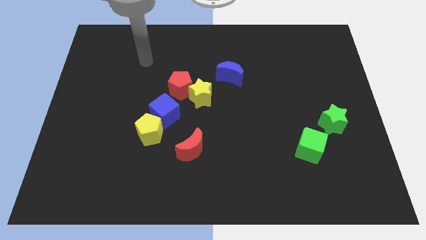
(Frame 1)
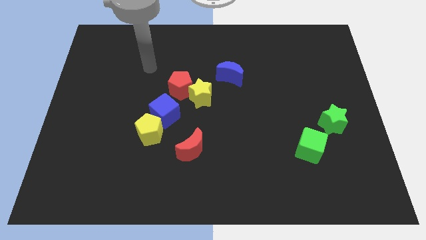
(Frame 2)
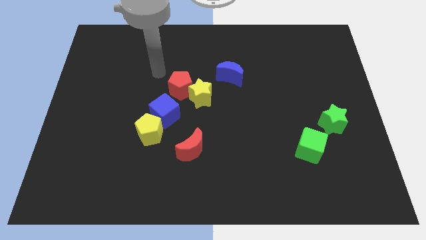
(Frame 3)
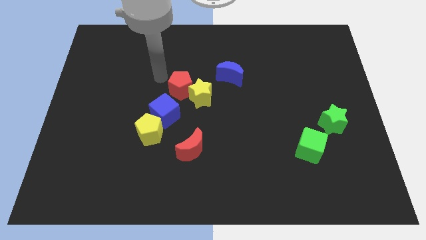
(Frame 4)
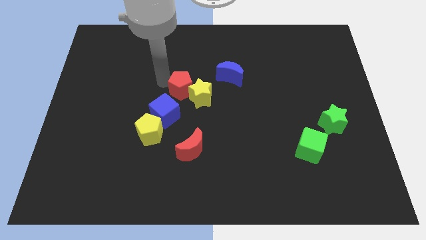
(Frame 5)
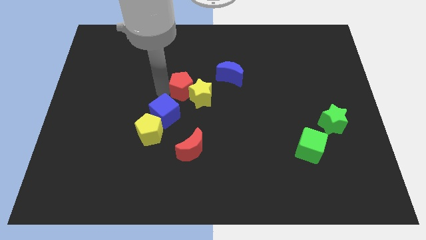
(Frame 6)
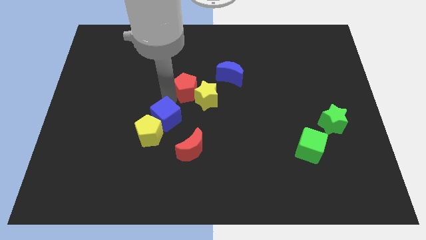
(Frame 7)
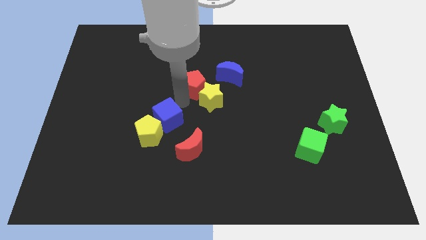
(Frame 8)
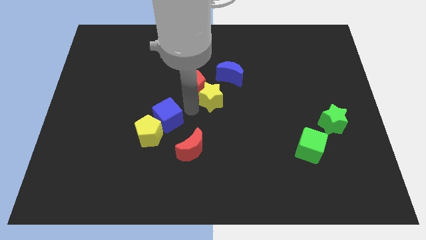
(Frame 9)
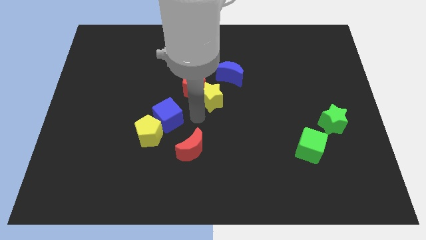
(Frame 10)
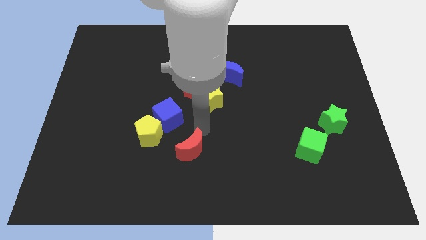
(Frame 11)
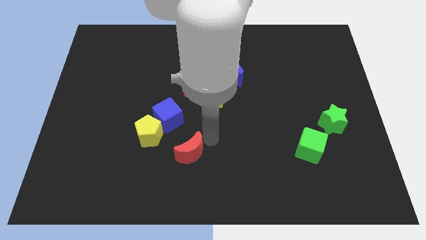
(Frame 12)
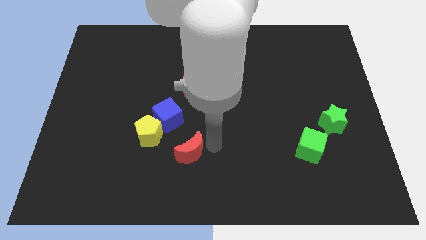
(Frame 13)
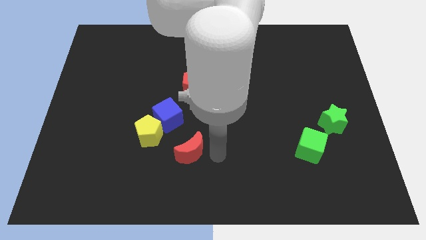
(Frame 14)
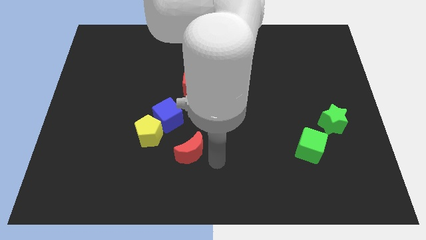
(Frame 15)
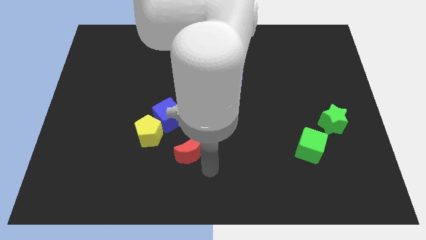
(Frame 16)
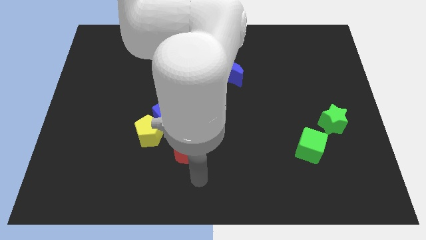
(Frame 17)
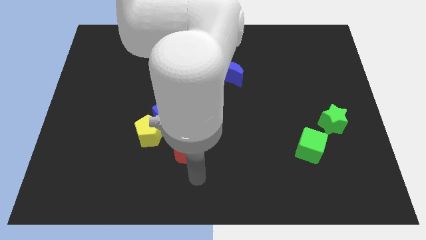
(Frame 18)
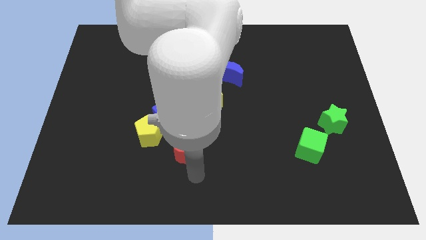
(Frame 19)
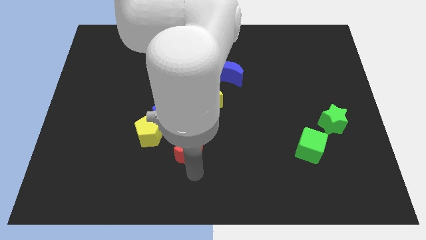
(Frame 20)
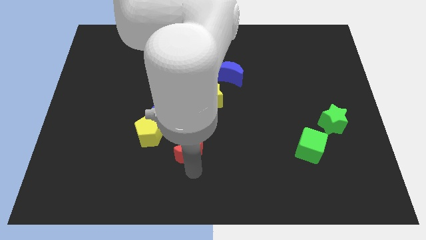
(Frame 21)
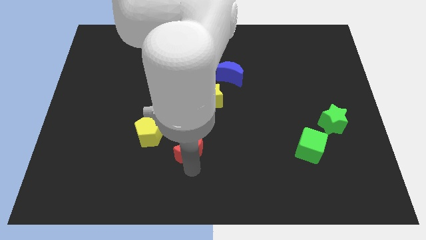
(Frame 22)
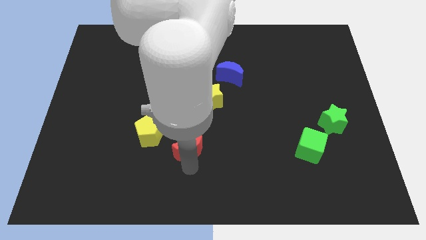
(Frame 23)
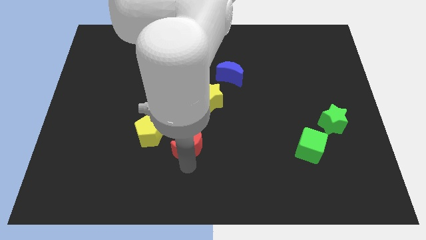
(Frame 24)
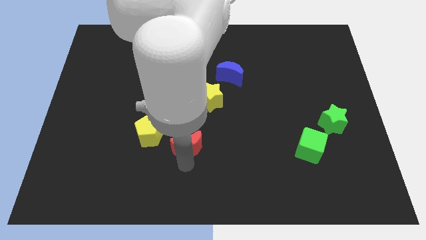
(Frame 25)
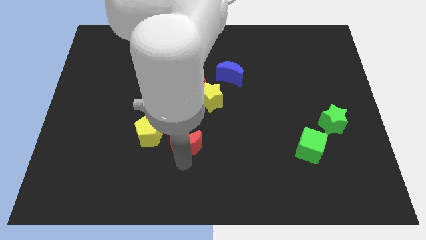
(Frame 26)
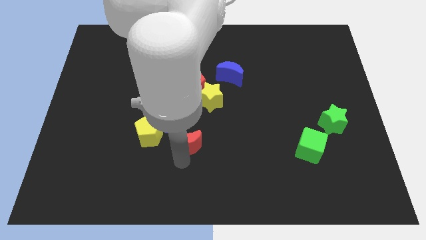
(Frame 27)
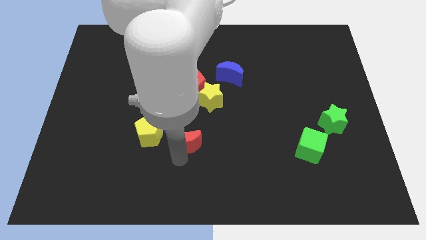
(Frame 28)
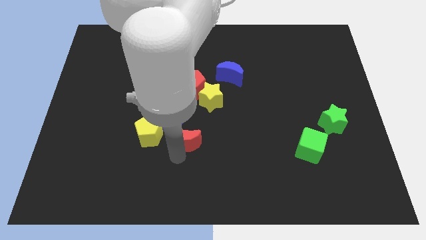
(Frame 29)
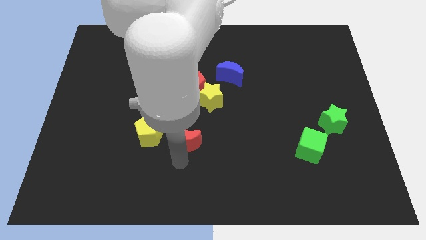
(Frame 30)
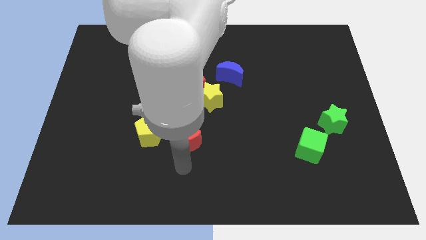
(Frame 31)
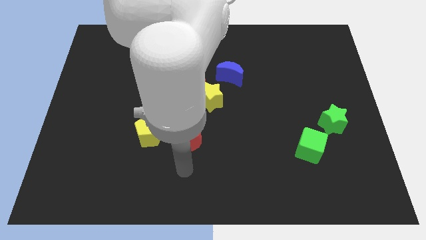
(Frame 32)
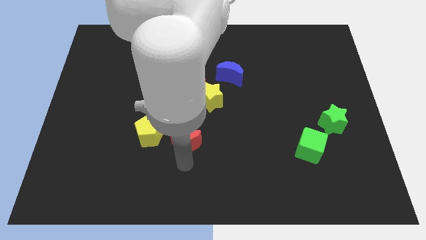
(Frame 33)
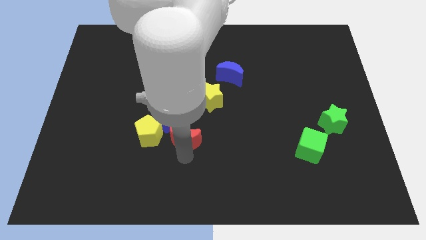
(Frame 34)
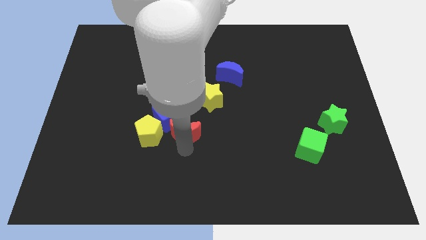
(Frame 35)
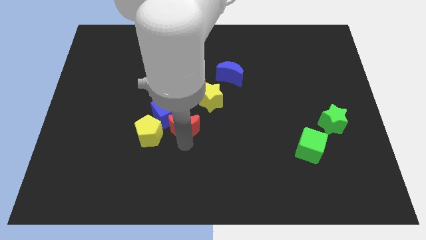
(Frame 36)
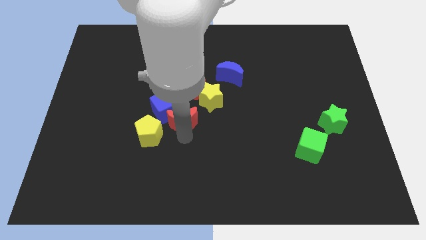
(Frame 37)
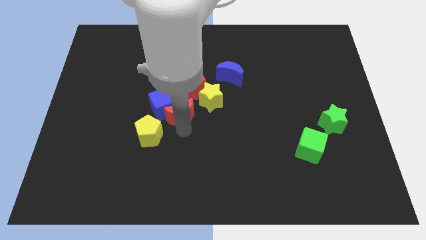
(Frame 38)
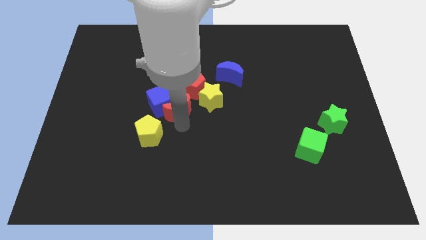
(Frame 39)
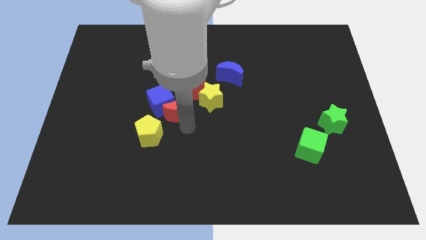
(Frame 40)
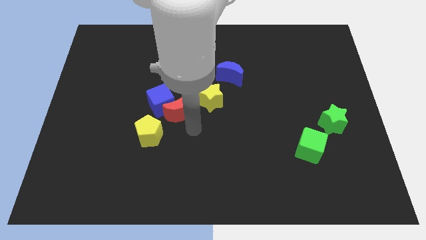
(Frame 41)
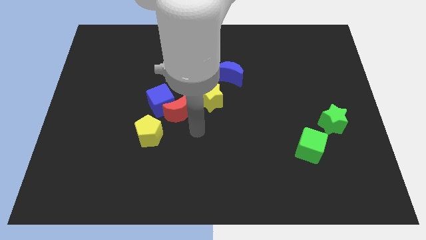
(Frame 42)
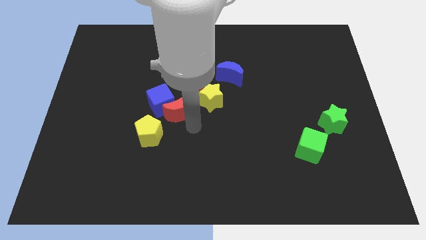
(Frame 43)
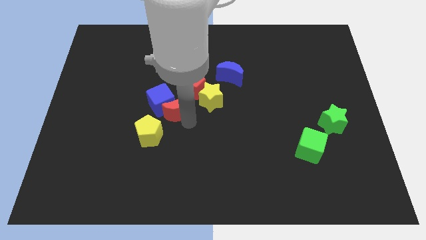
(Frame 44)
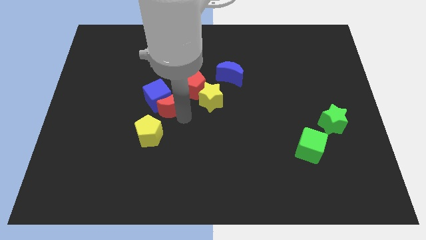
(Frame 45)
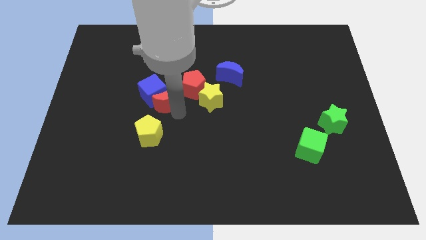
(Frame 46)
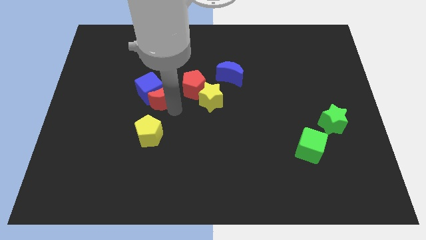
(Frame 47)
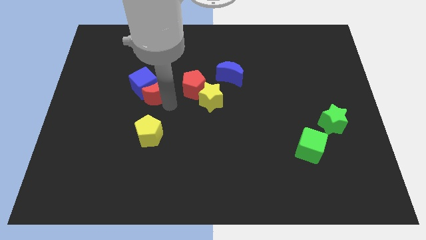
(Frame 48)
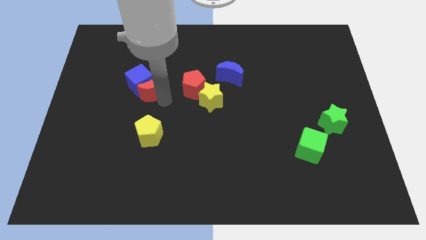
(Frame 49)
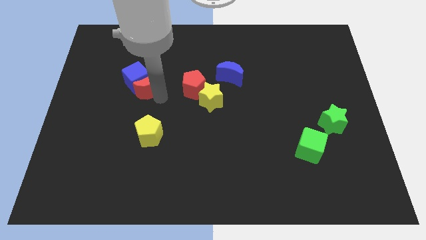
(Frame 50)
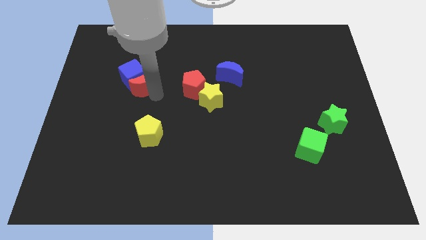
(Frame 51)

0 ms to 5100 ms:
move the red moon up and then to the left

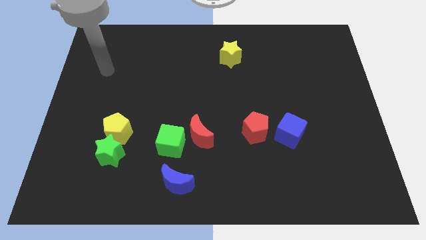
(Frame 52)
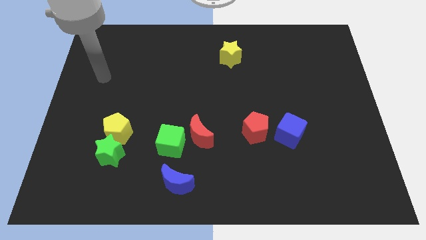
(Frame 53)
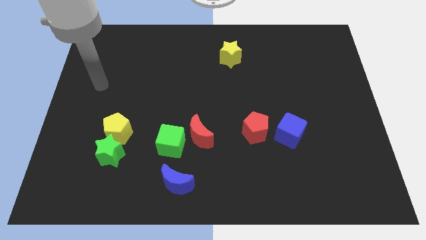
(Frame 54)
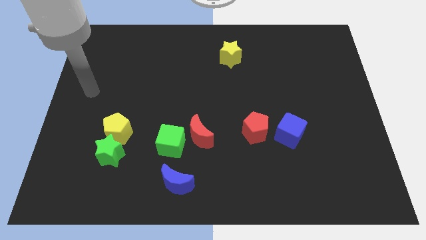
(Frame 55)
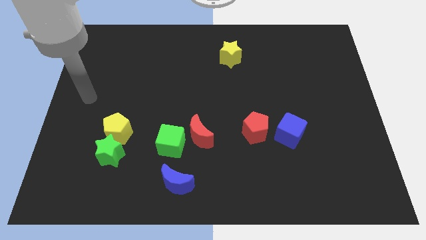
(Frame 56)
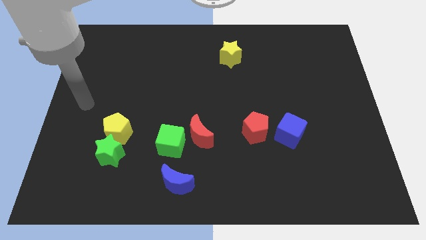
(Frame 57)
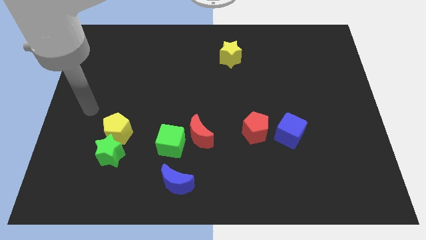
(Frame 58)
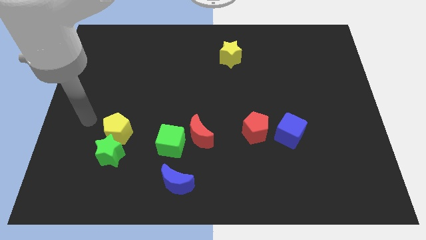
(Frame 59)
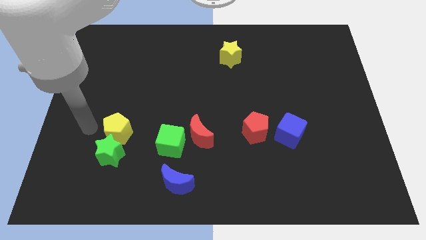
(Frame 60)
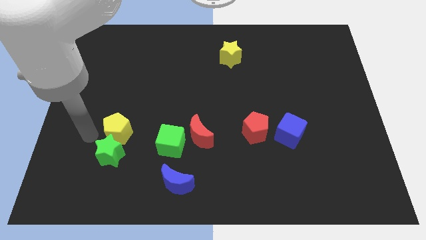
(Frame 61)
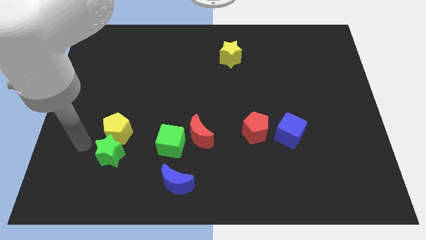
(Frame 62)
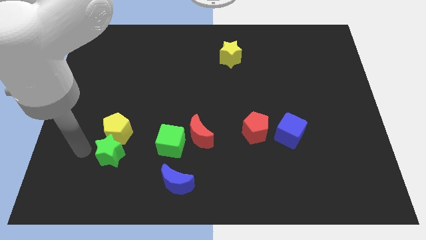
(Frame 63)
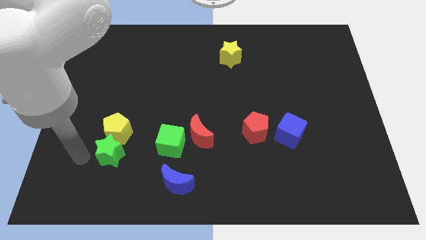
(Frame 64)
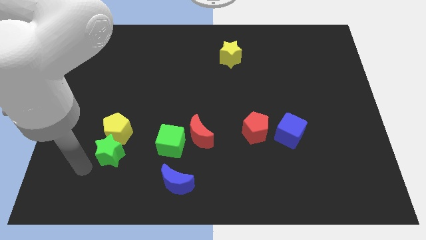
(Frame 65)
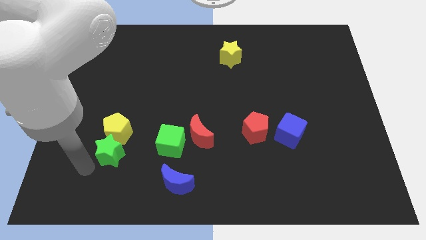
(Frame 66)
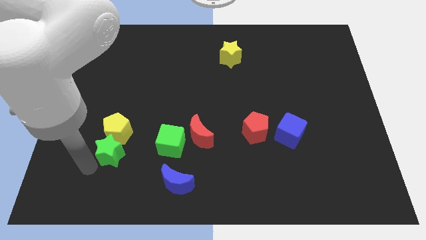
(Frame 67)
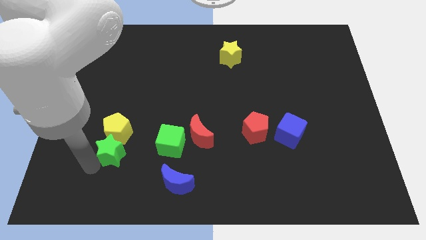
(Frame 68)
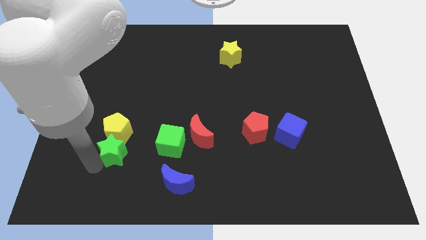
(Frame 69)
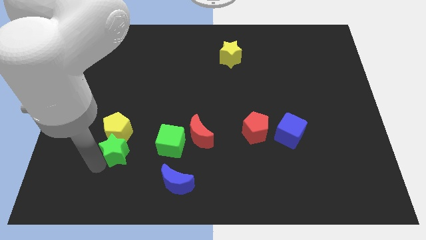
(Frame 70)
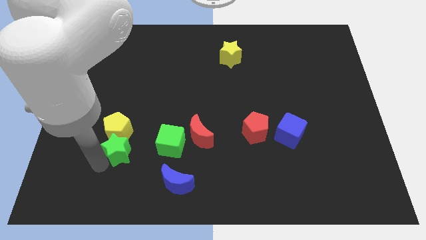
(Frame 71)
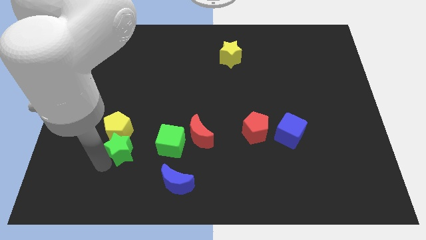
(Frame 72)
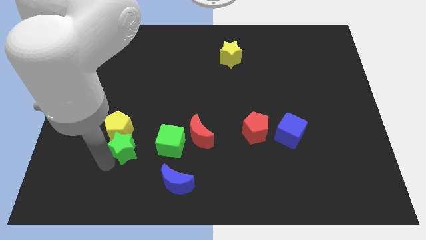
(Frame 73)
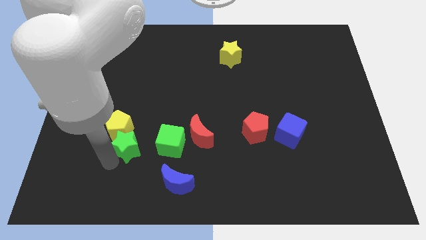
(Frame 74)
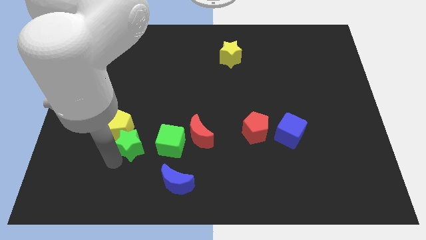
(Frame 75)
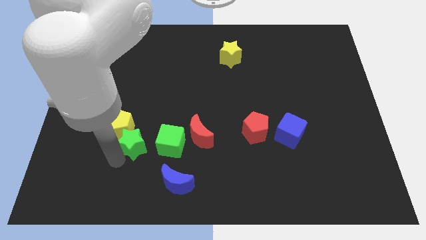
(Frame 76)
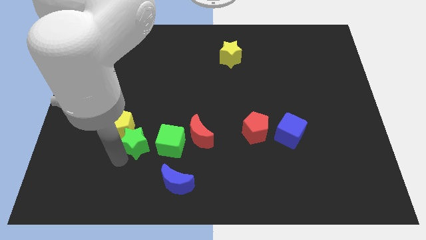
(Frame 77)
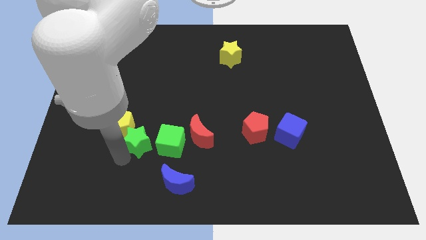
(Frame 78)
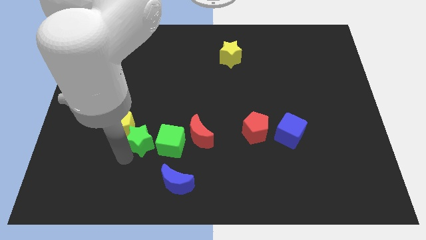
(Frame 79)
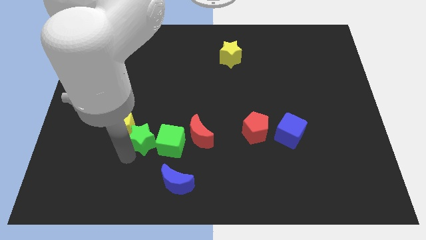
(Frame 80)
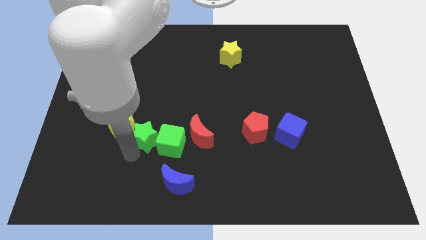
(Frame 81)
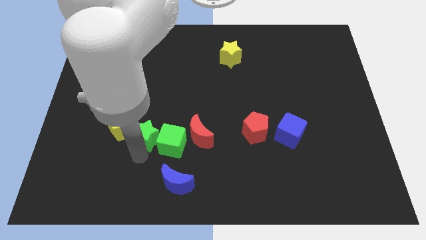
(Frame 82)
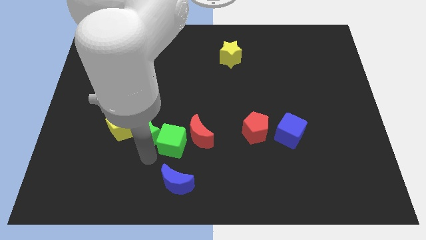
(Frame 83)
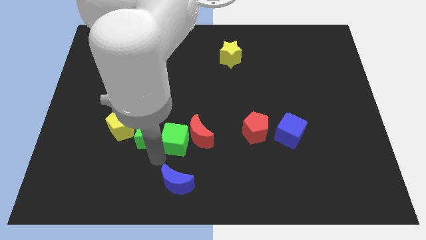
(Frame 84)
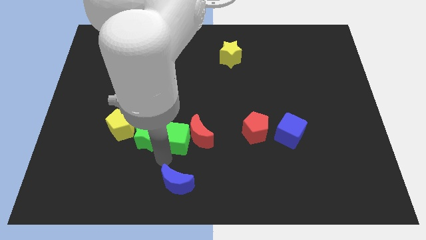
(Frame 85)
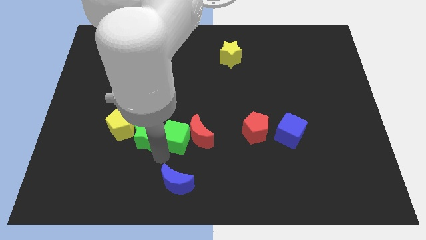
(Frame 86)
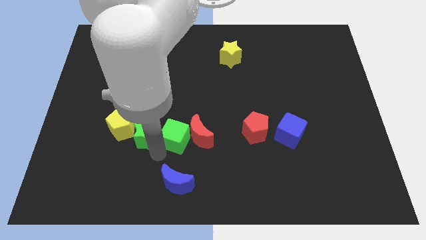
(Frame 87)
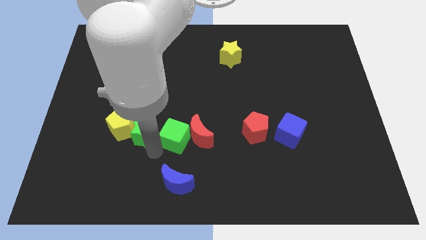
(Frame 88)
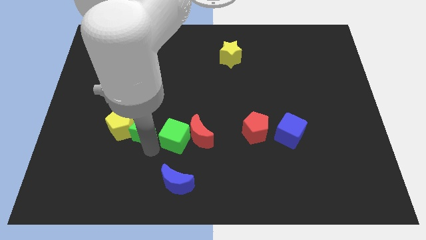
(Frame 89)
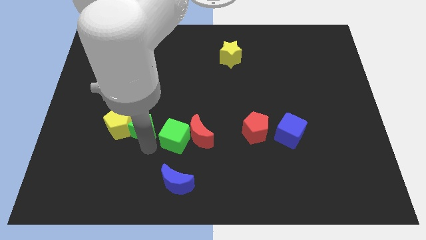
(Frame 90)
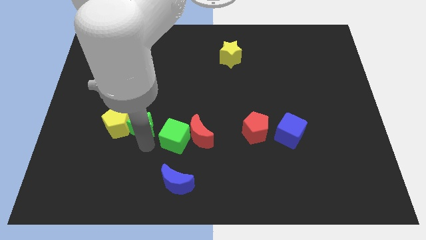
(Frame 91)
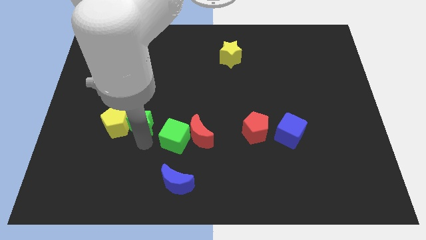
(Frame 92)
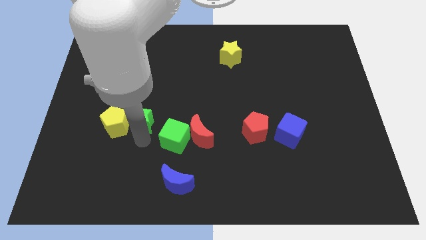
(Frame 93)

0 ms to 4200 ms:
move the green star somewhat upwards
